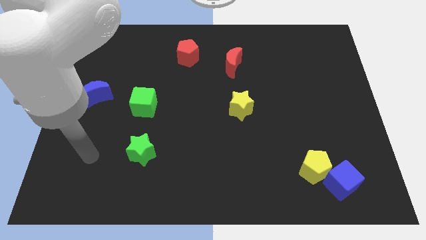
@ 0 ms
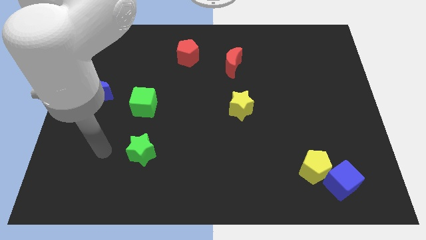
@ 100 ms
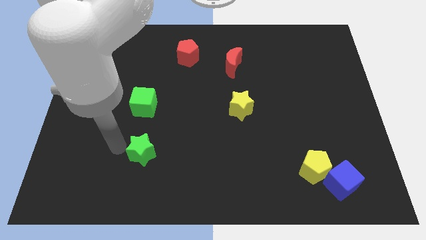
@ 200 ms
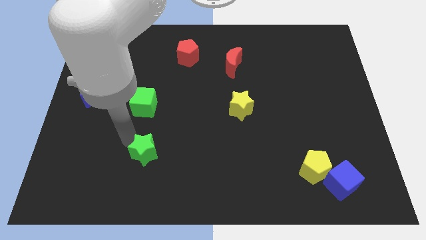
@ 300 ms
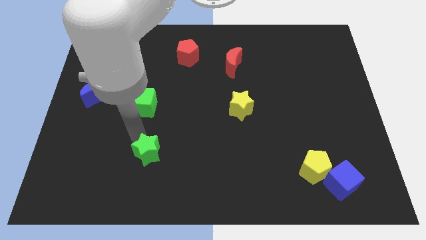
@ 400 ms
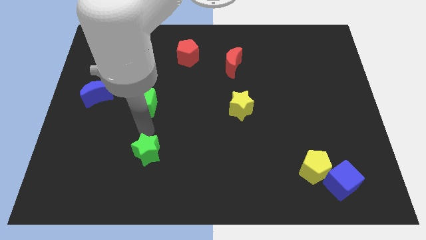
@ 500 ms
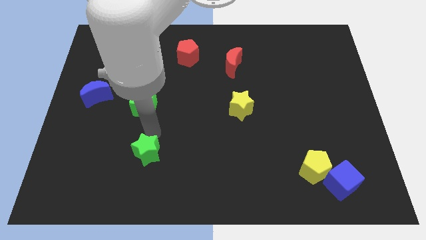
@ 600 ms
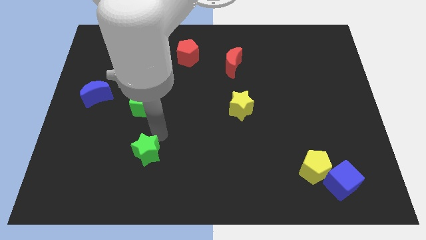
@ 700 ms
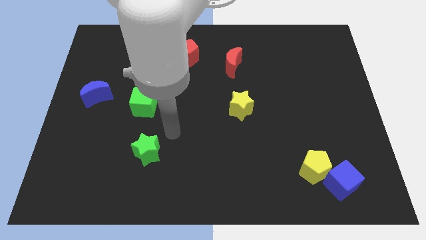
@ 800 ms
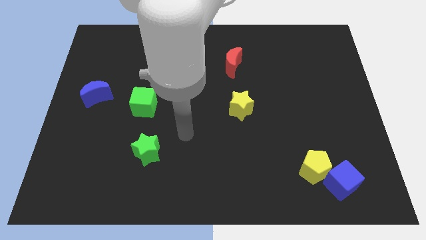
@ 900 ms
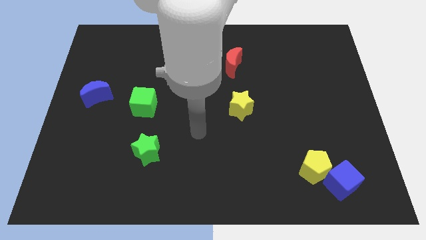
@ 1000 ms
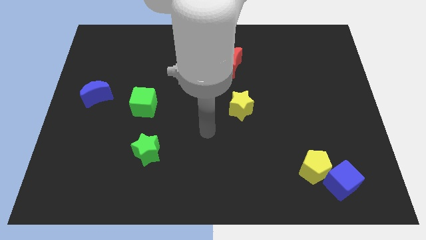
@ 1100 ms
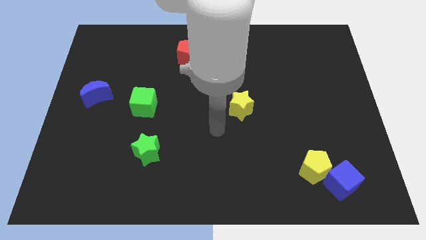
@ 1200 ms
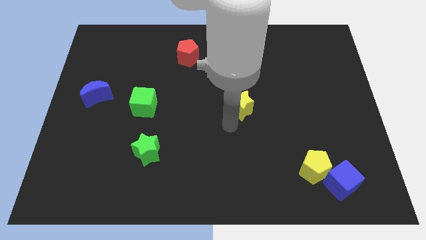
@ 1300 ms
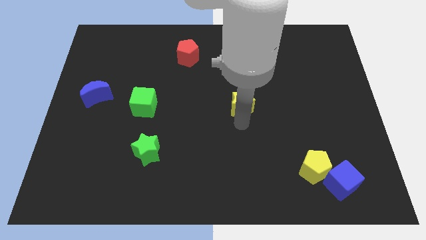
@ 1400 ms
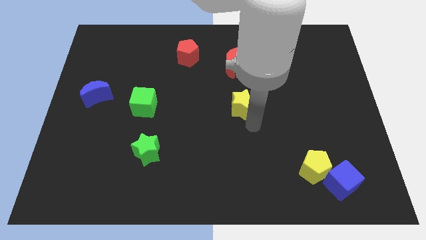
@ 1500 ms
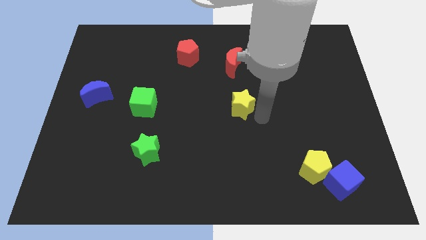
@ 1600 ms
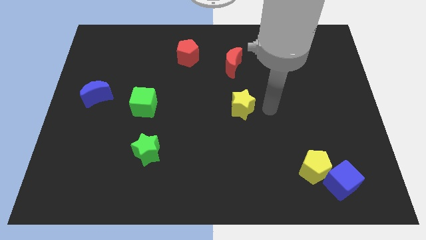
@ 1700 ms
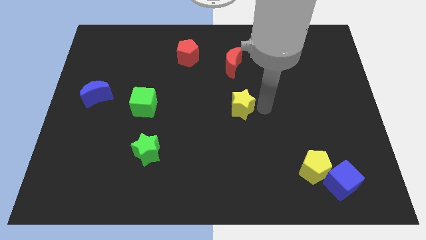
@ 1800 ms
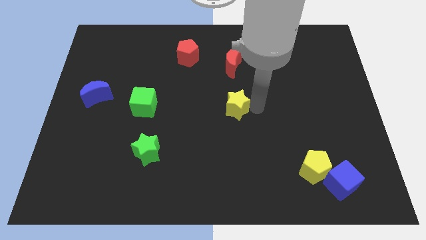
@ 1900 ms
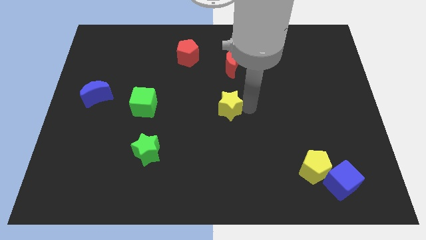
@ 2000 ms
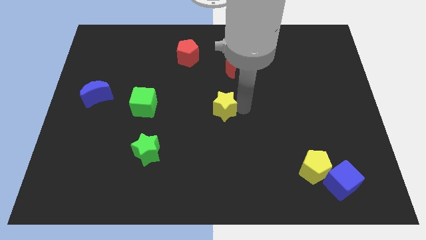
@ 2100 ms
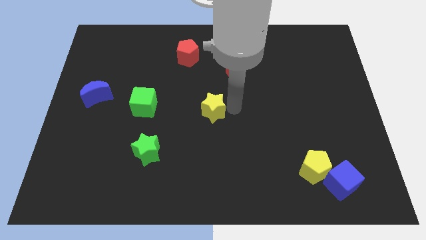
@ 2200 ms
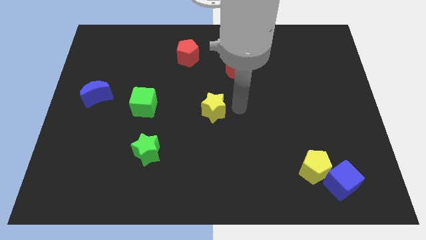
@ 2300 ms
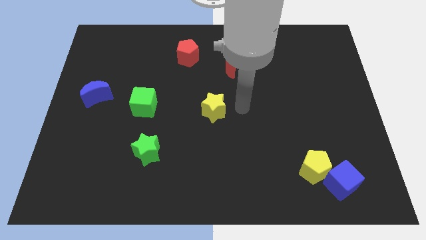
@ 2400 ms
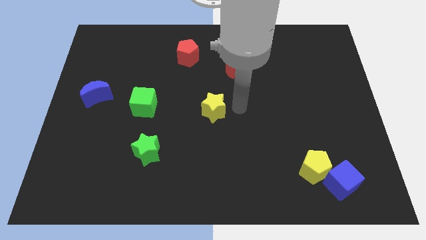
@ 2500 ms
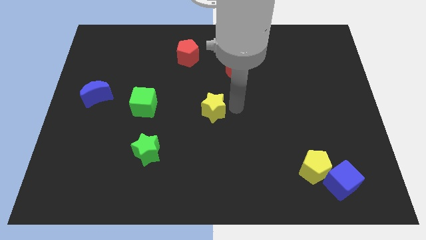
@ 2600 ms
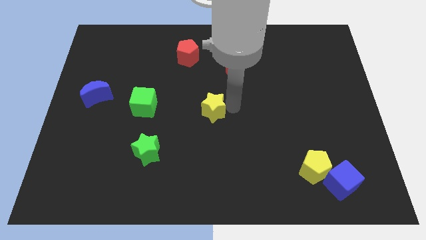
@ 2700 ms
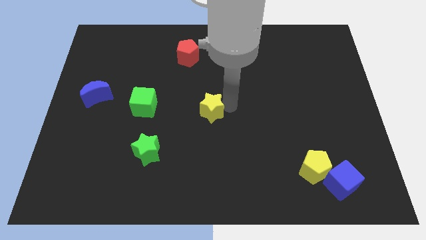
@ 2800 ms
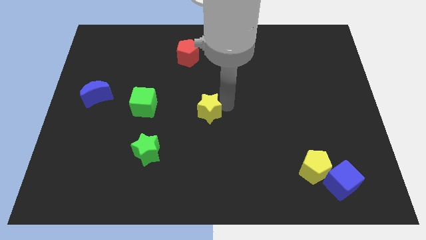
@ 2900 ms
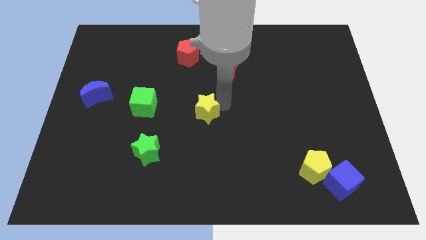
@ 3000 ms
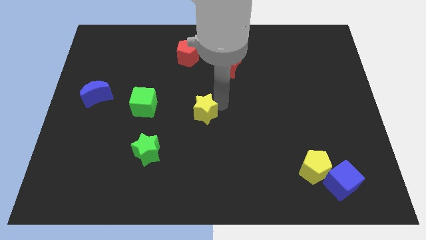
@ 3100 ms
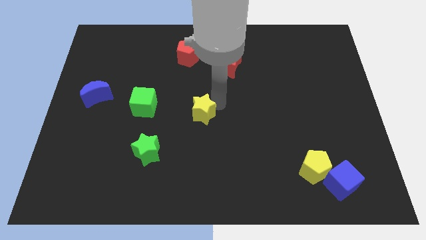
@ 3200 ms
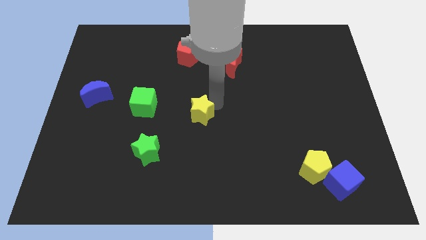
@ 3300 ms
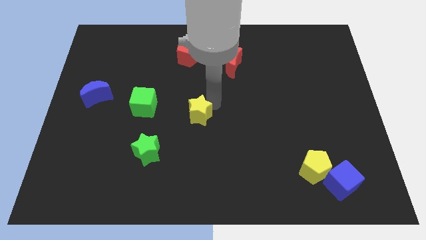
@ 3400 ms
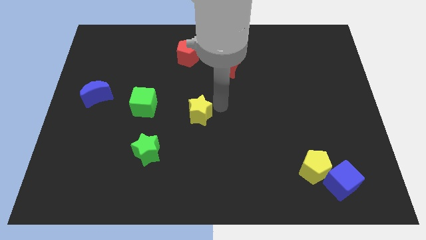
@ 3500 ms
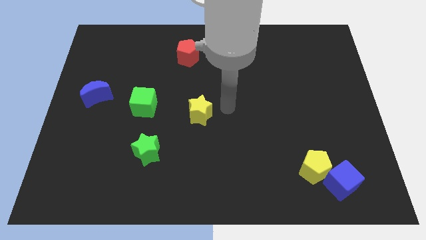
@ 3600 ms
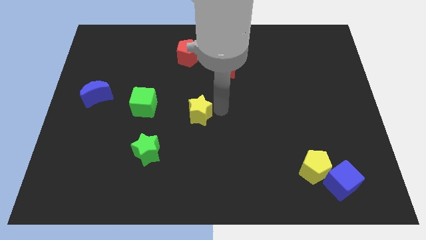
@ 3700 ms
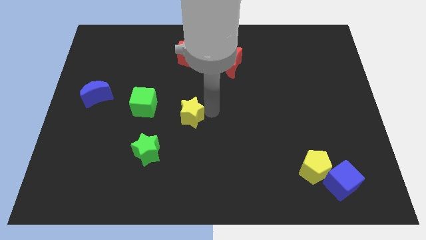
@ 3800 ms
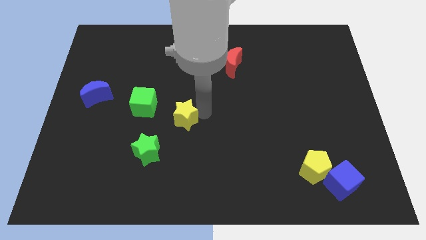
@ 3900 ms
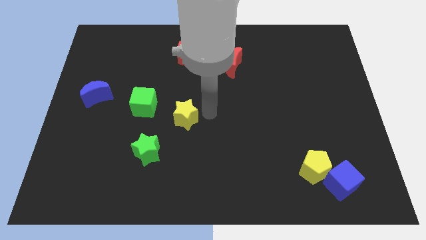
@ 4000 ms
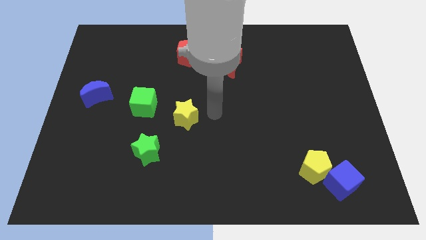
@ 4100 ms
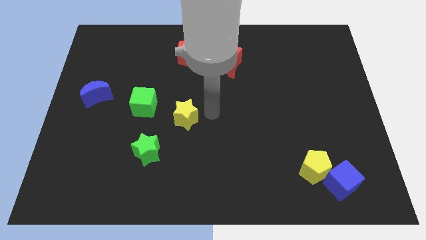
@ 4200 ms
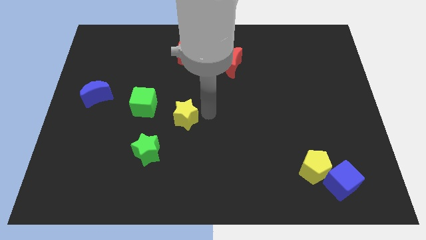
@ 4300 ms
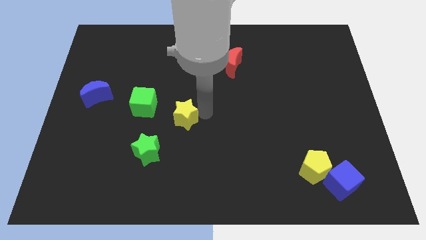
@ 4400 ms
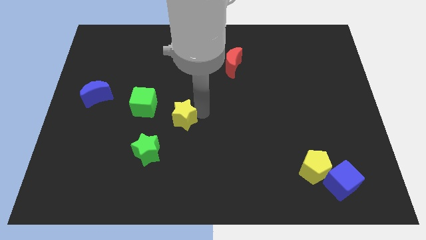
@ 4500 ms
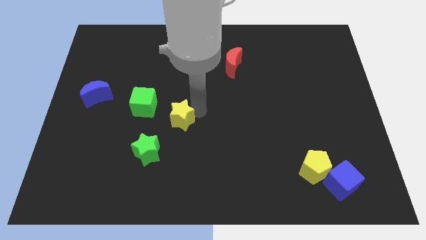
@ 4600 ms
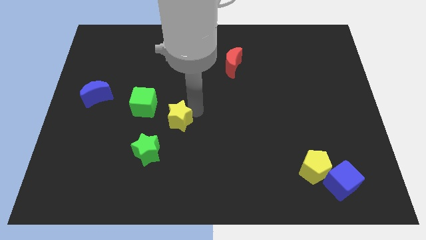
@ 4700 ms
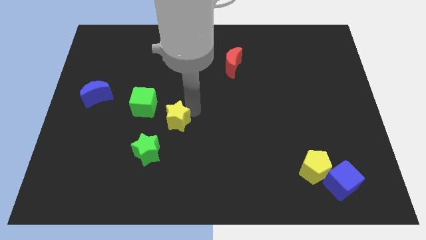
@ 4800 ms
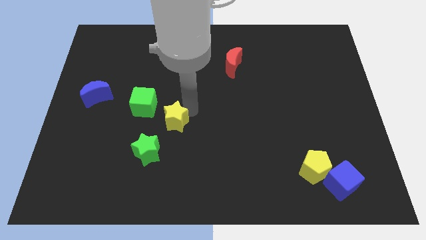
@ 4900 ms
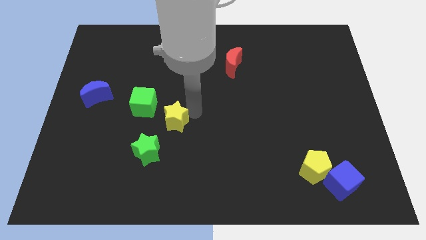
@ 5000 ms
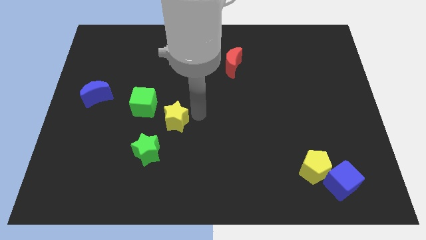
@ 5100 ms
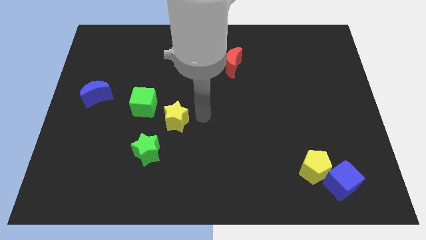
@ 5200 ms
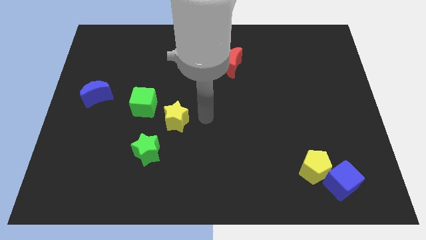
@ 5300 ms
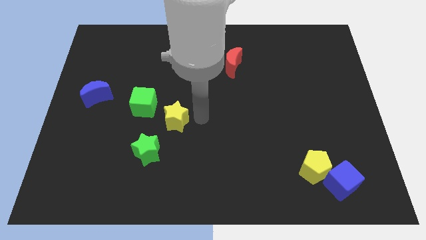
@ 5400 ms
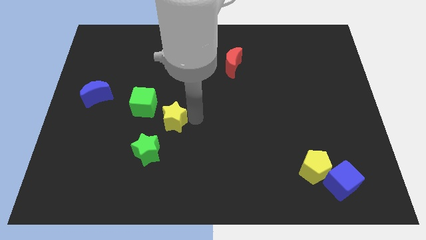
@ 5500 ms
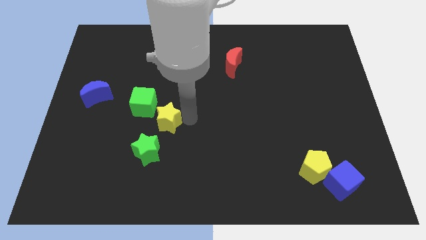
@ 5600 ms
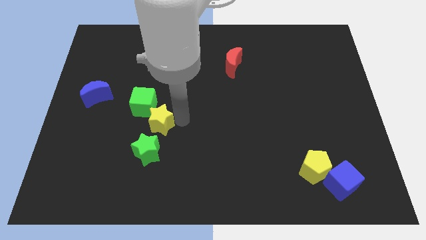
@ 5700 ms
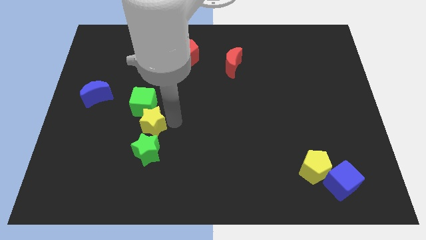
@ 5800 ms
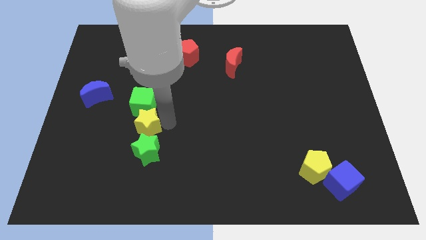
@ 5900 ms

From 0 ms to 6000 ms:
move the yellow star left

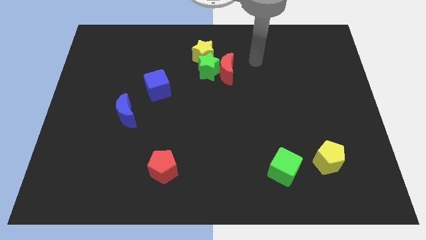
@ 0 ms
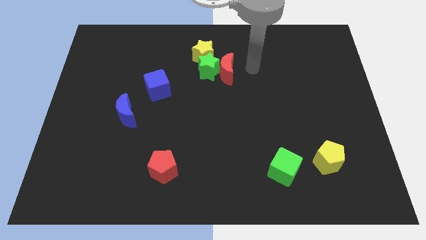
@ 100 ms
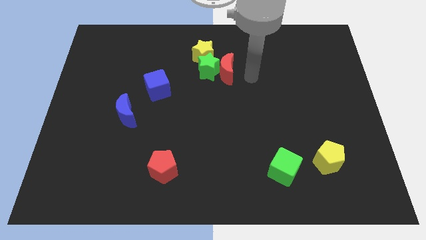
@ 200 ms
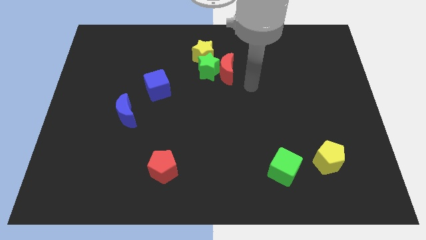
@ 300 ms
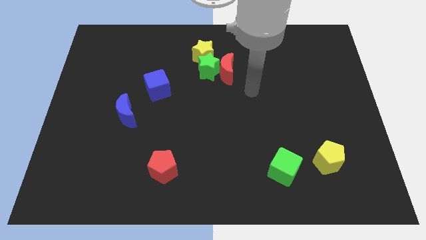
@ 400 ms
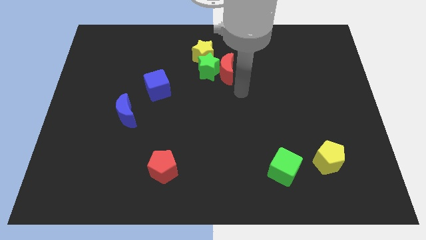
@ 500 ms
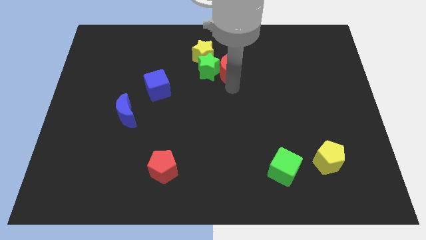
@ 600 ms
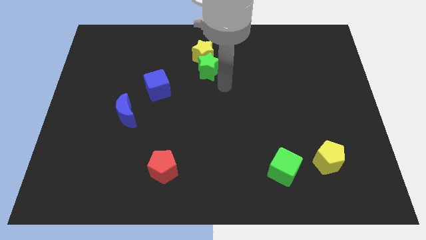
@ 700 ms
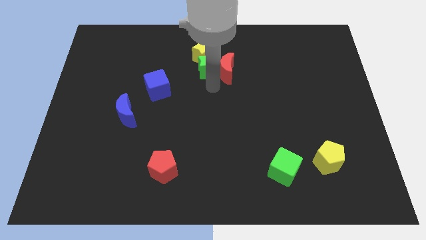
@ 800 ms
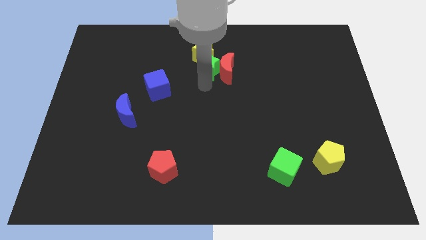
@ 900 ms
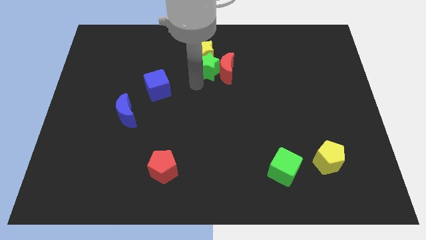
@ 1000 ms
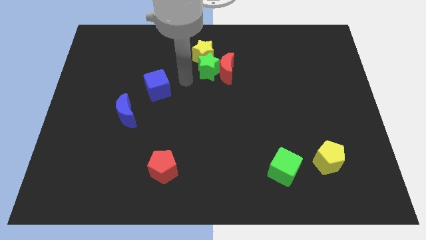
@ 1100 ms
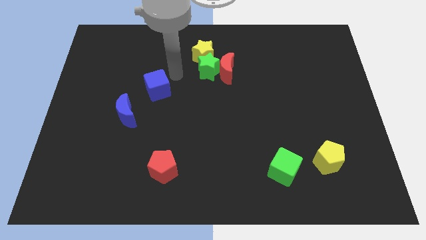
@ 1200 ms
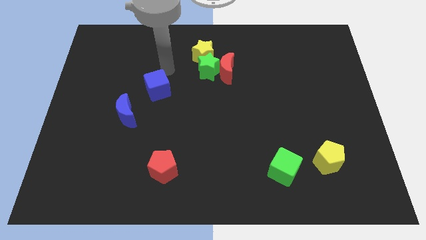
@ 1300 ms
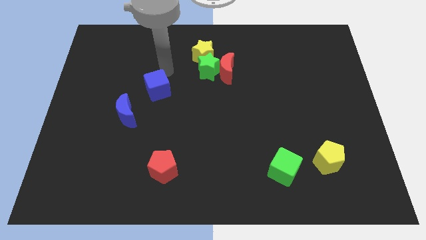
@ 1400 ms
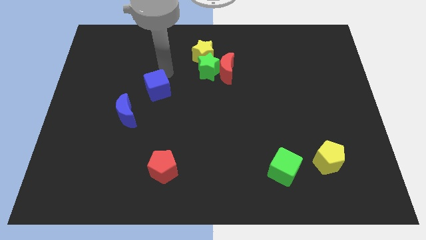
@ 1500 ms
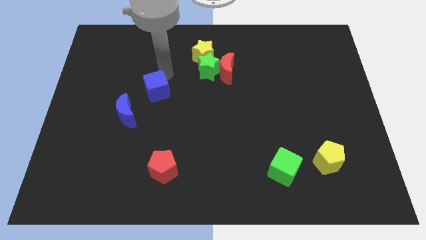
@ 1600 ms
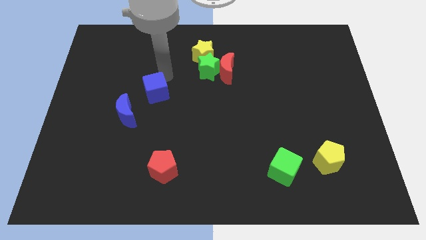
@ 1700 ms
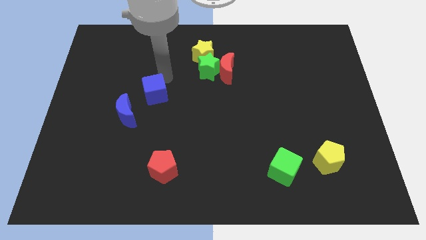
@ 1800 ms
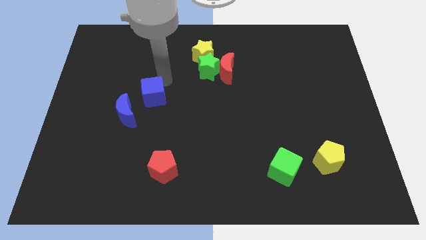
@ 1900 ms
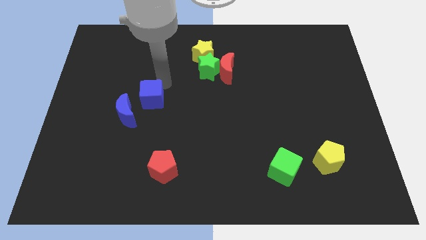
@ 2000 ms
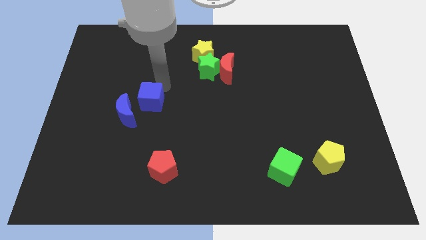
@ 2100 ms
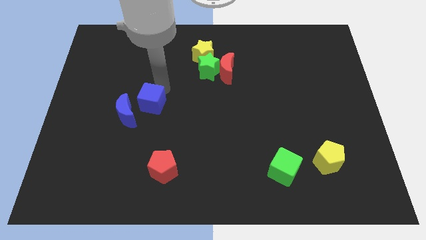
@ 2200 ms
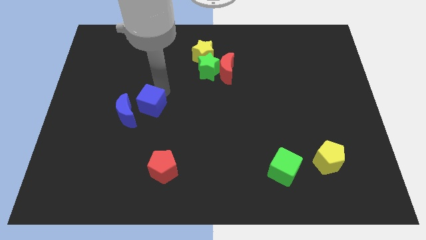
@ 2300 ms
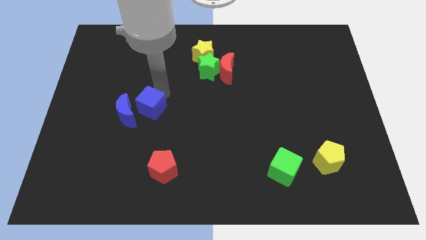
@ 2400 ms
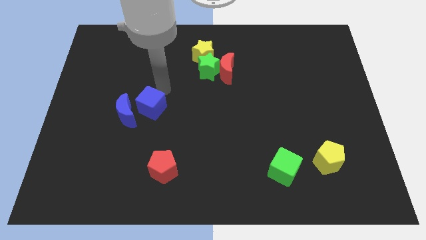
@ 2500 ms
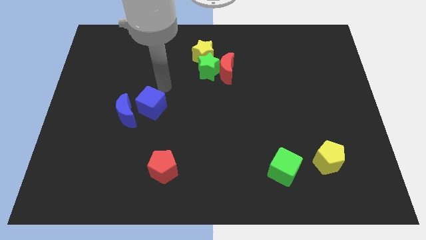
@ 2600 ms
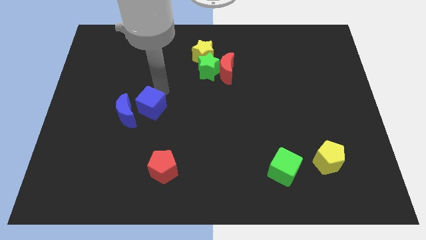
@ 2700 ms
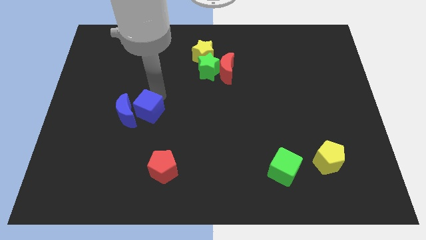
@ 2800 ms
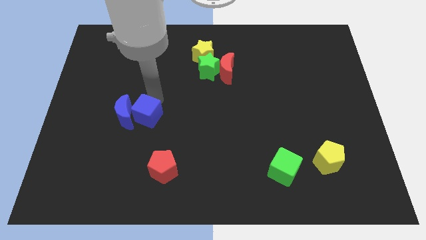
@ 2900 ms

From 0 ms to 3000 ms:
slide the blue cube downwards a little bit
